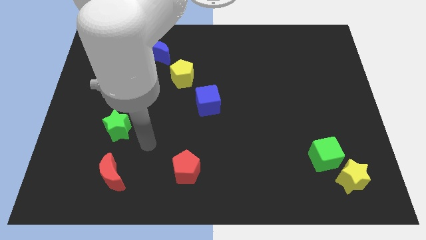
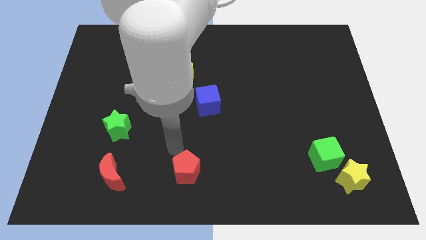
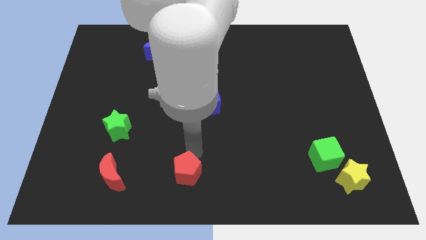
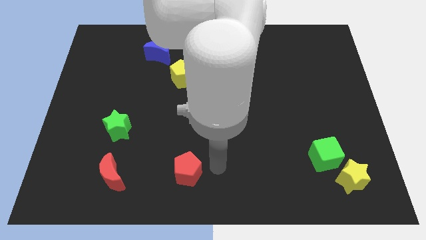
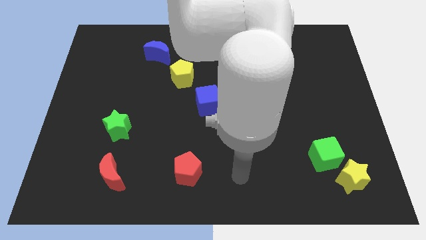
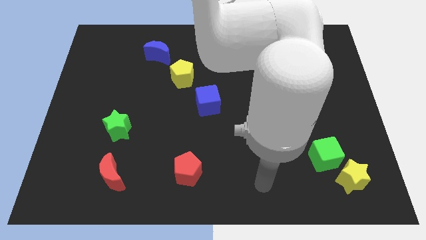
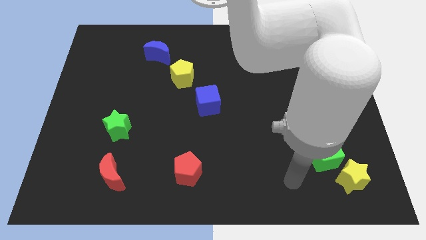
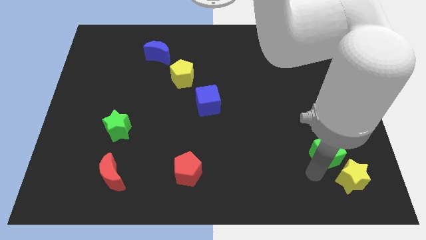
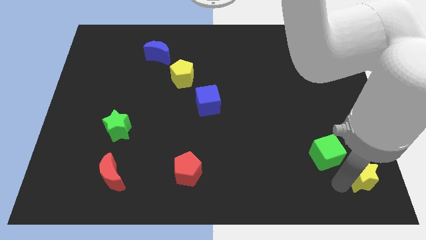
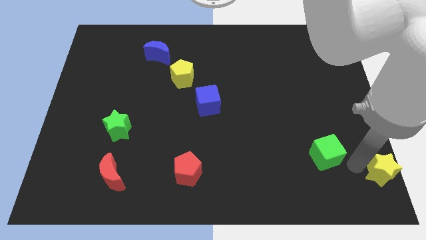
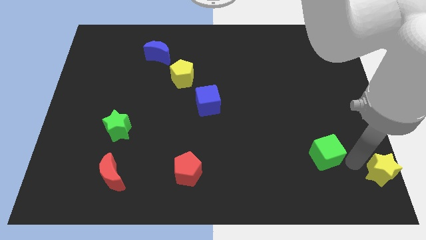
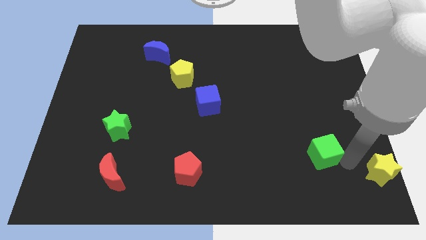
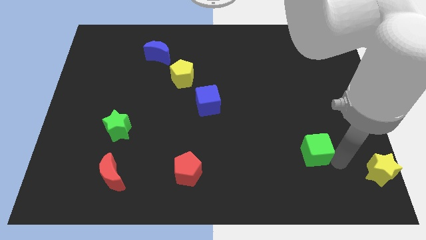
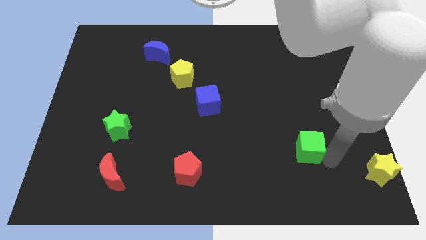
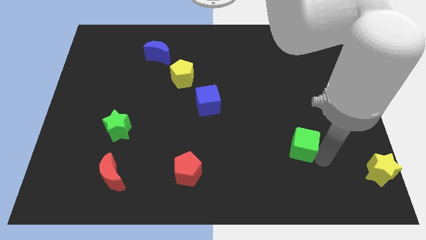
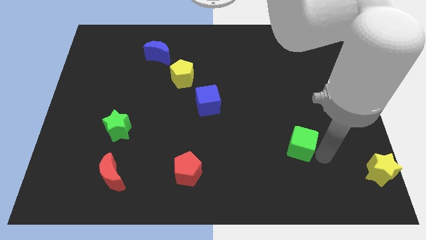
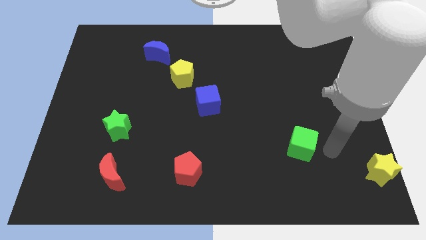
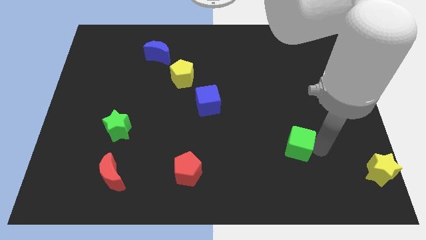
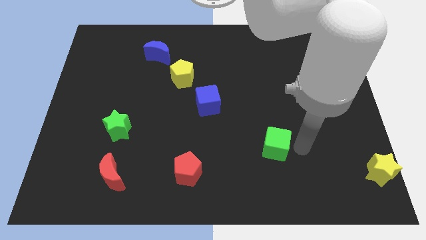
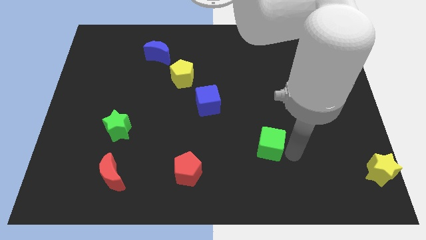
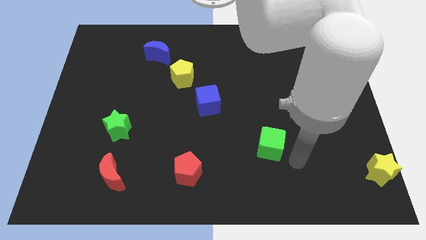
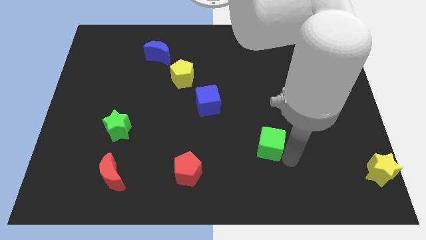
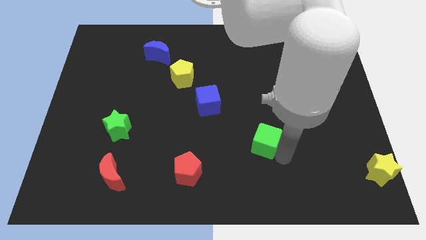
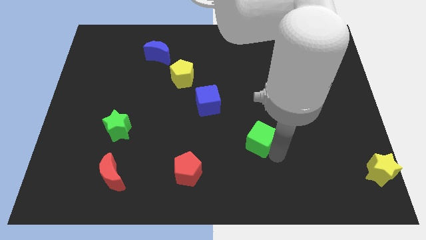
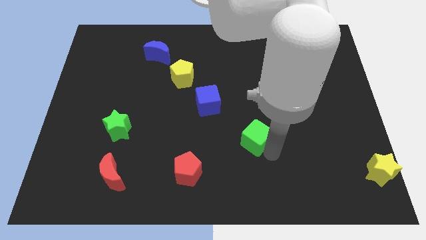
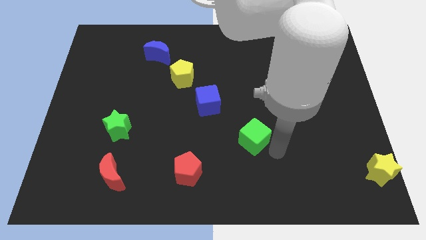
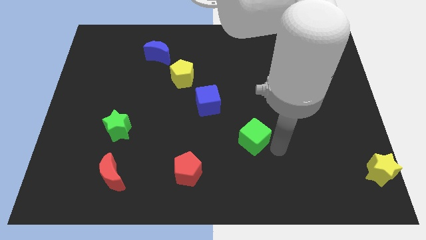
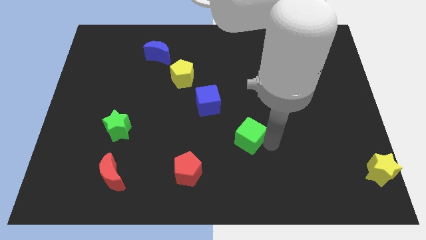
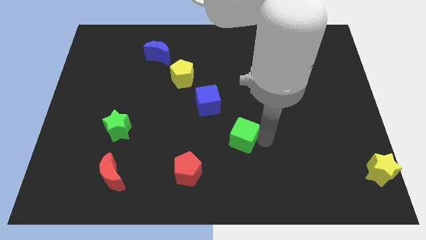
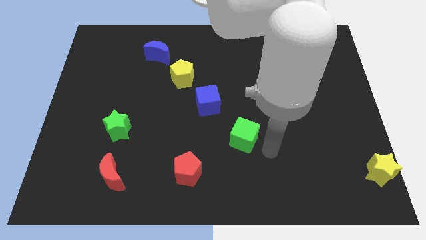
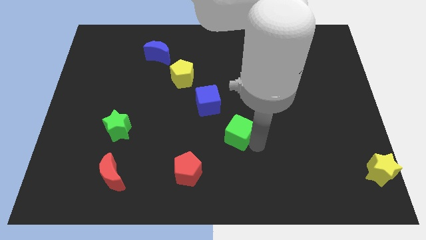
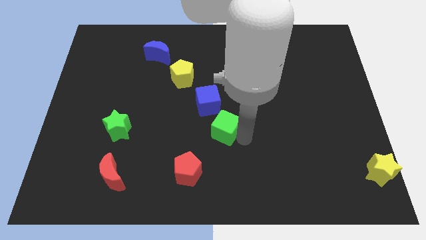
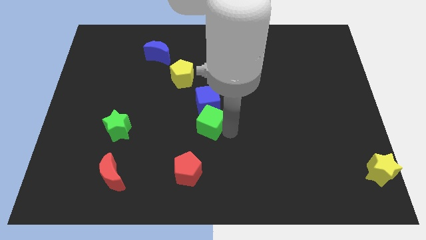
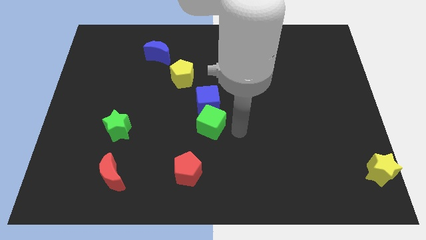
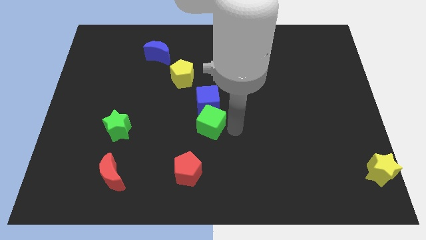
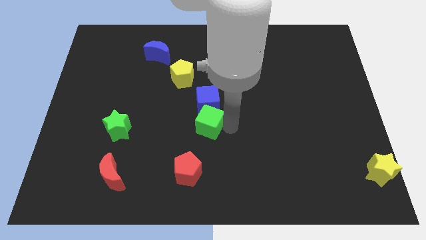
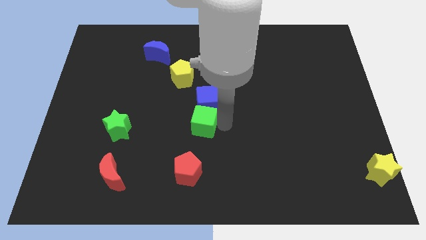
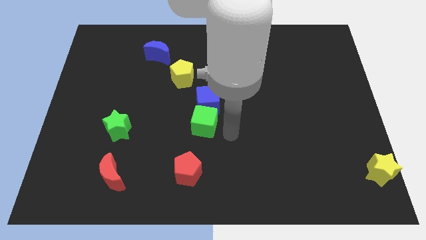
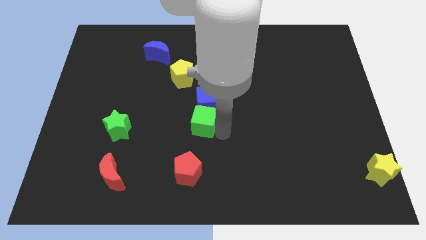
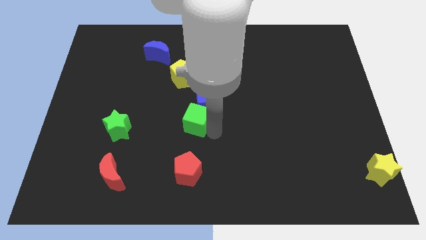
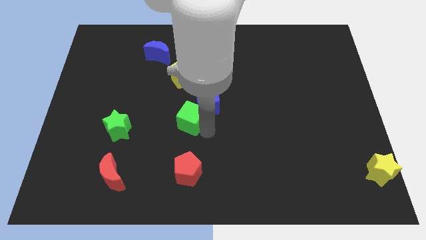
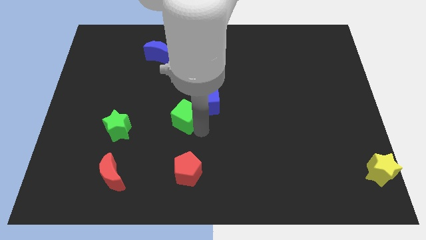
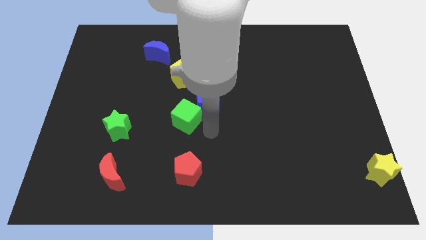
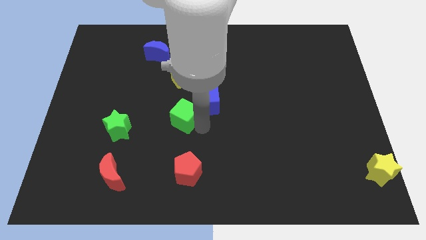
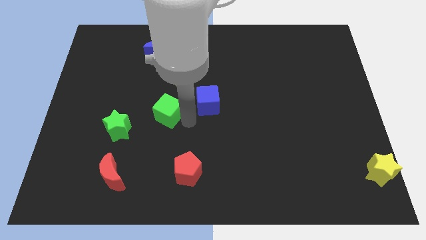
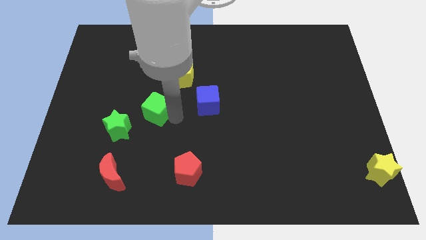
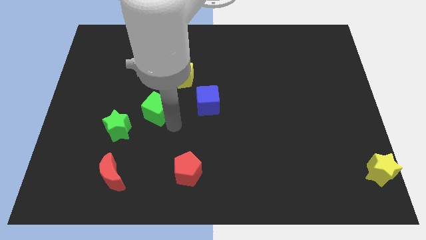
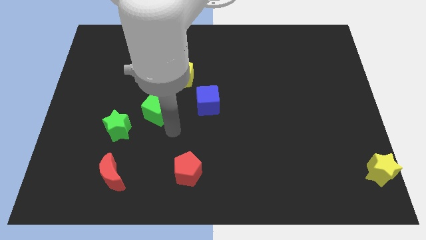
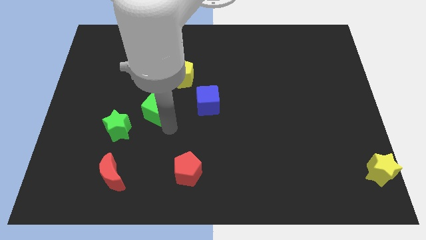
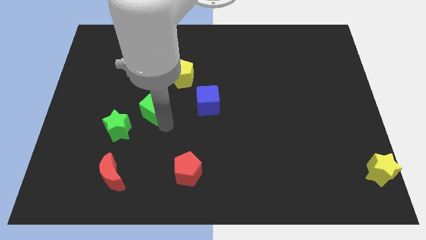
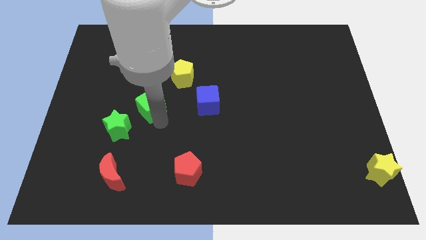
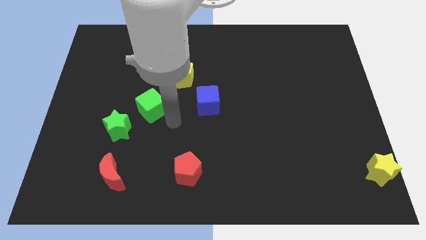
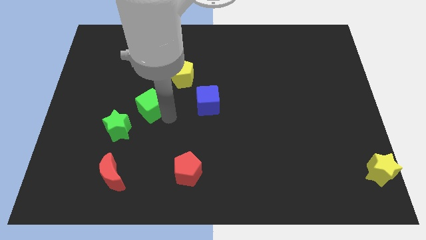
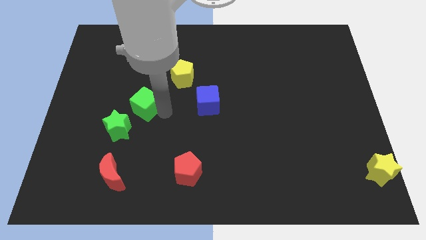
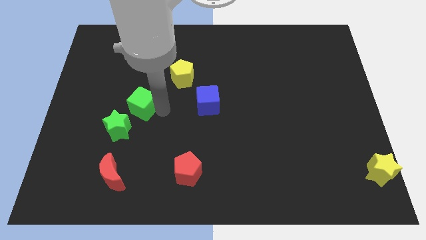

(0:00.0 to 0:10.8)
push the green cube above the green star
